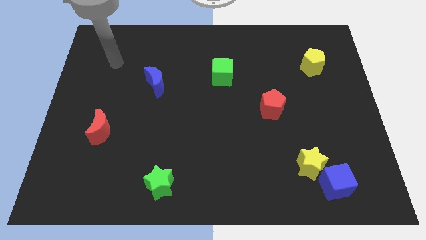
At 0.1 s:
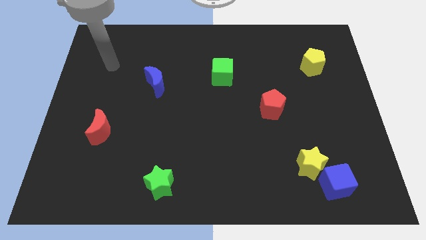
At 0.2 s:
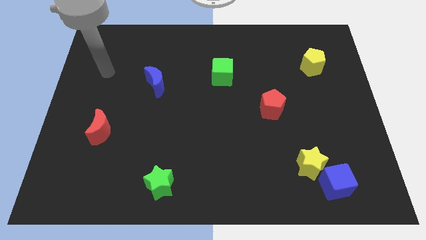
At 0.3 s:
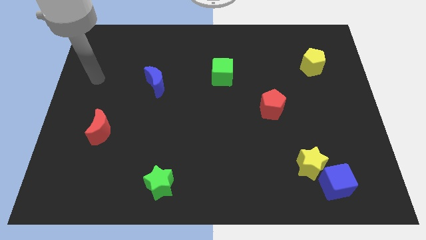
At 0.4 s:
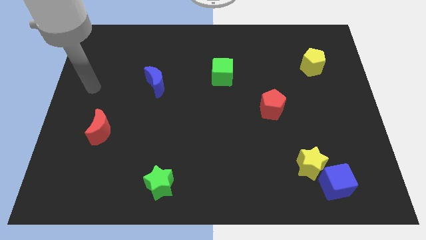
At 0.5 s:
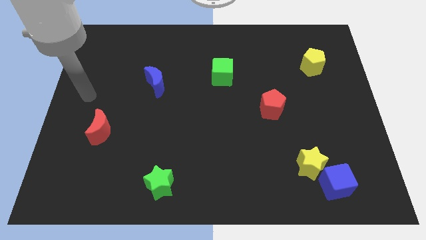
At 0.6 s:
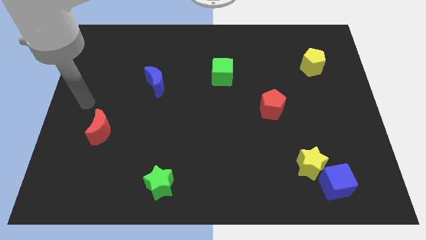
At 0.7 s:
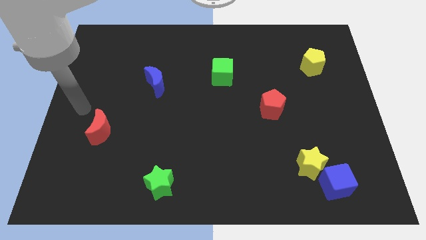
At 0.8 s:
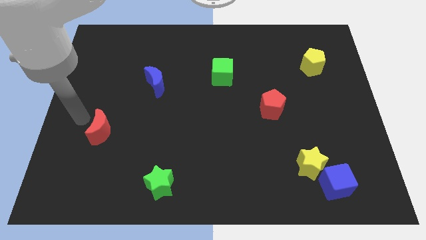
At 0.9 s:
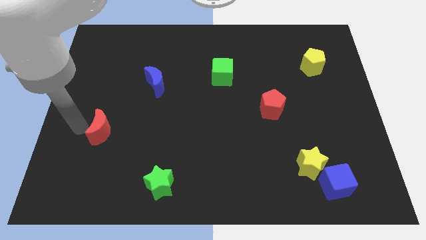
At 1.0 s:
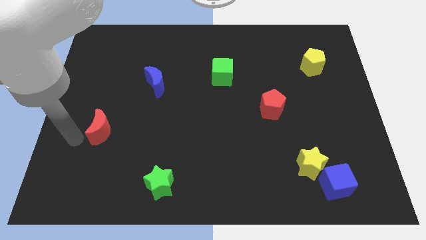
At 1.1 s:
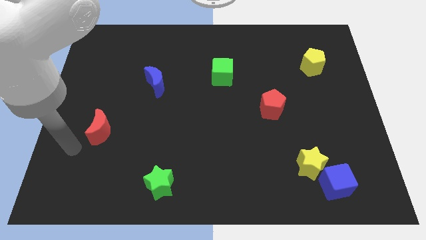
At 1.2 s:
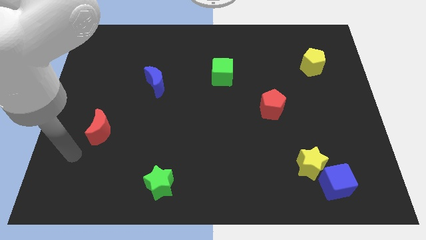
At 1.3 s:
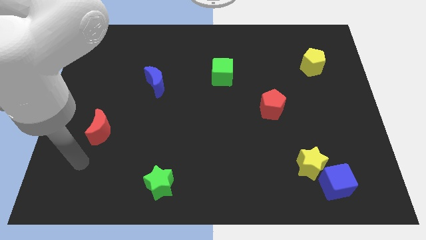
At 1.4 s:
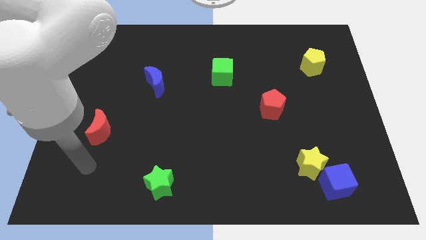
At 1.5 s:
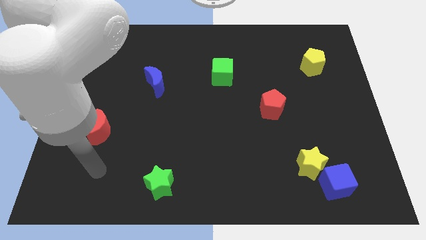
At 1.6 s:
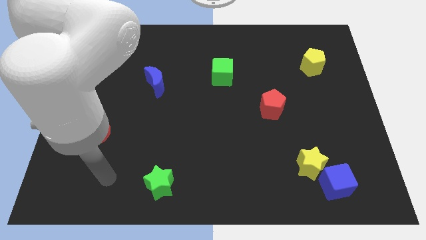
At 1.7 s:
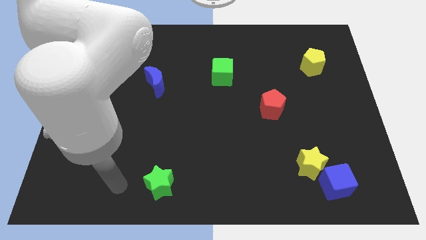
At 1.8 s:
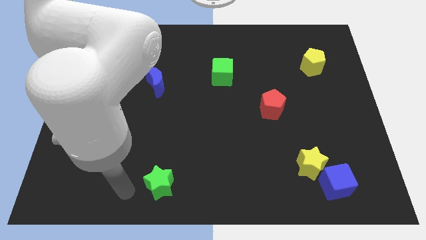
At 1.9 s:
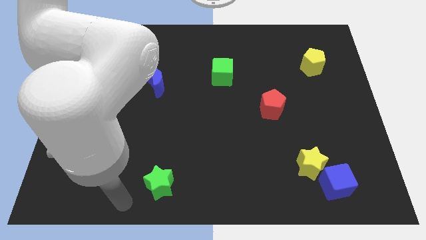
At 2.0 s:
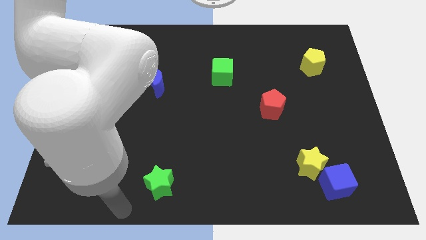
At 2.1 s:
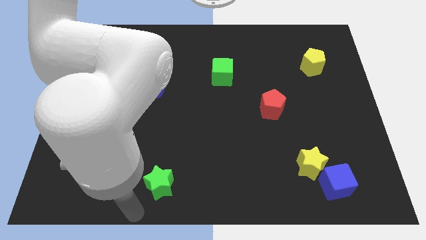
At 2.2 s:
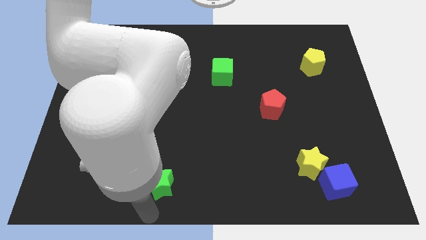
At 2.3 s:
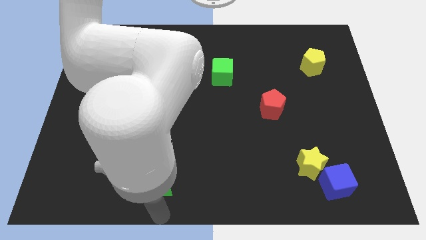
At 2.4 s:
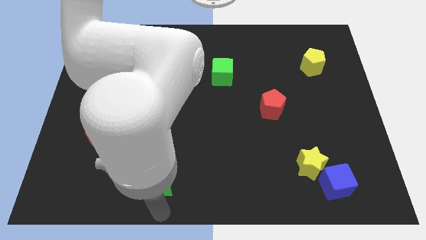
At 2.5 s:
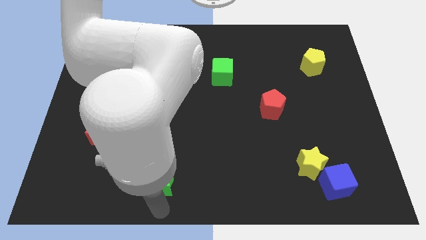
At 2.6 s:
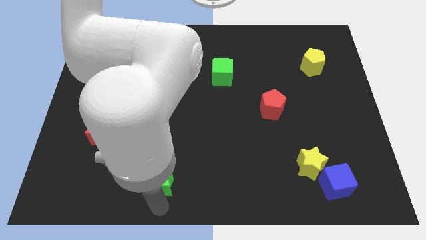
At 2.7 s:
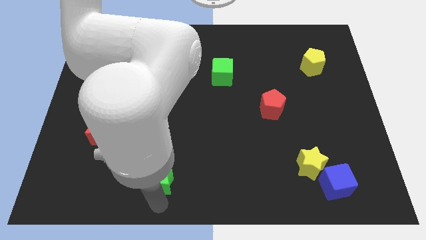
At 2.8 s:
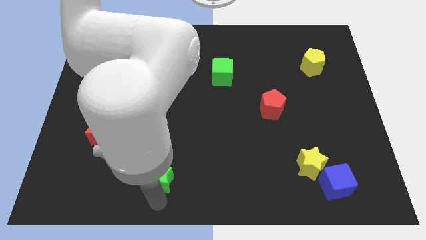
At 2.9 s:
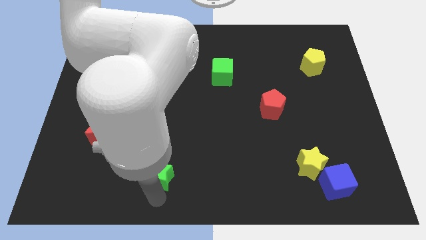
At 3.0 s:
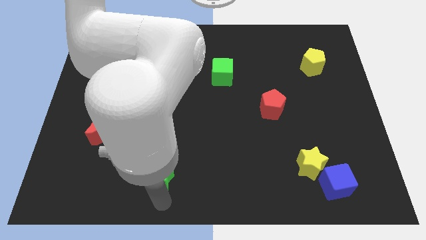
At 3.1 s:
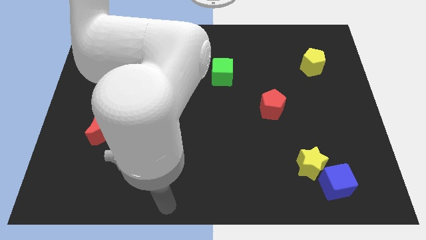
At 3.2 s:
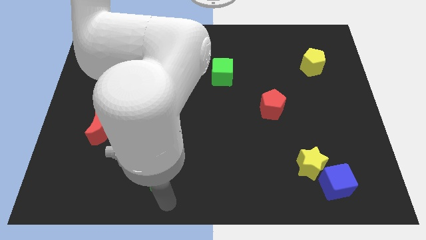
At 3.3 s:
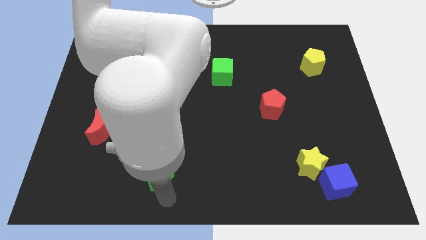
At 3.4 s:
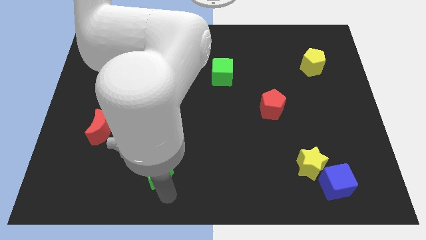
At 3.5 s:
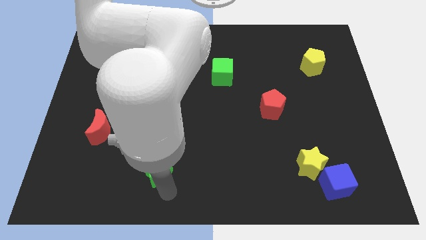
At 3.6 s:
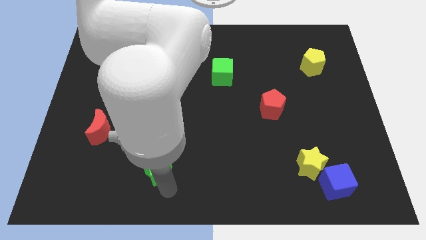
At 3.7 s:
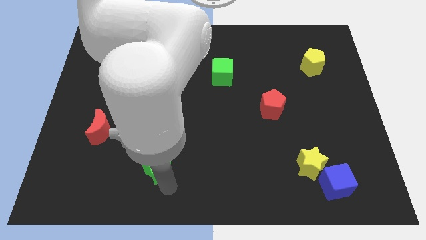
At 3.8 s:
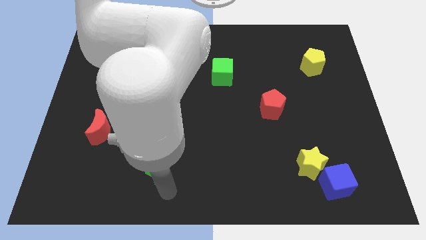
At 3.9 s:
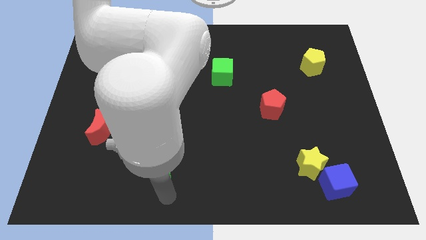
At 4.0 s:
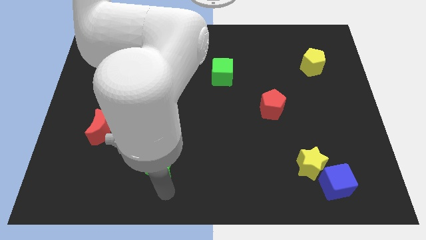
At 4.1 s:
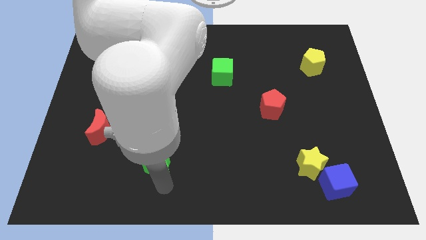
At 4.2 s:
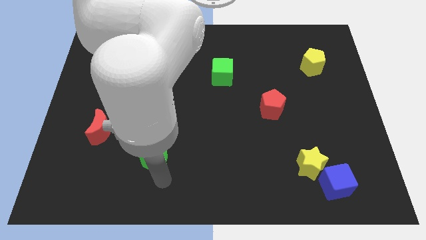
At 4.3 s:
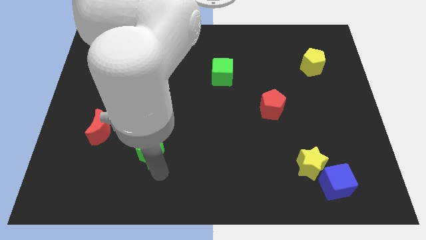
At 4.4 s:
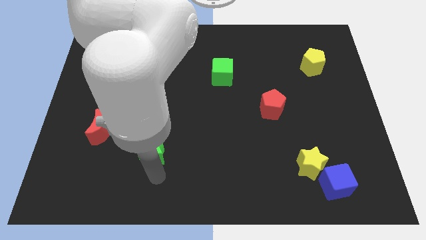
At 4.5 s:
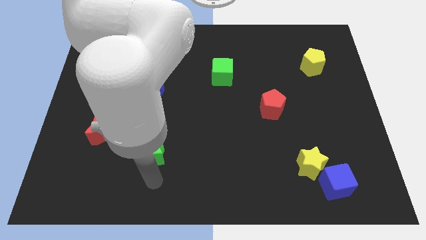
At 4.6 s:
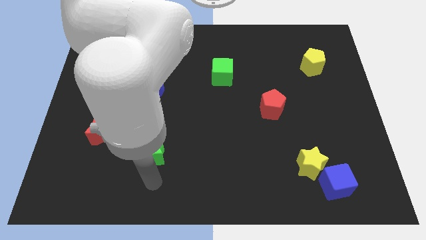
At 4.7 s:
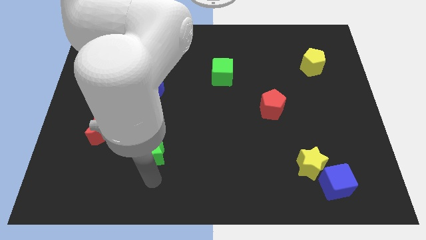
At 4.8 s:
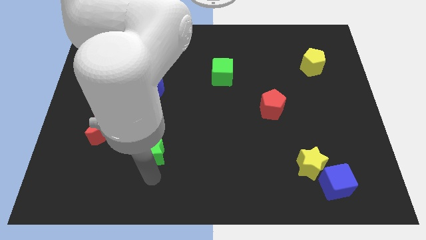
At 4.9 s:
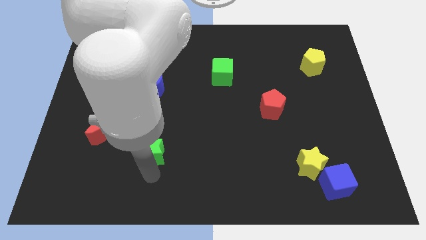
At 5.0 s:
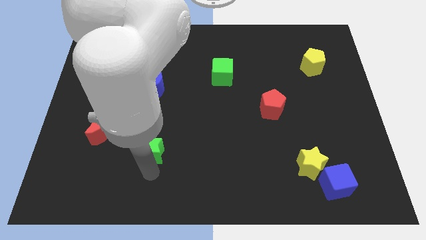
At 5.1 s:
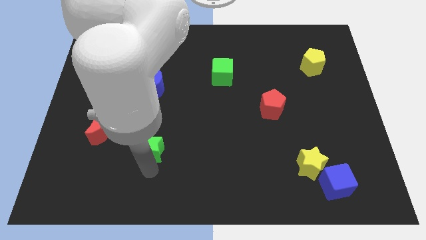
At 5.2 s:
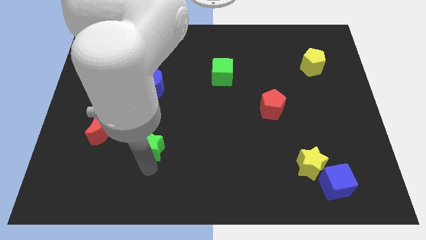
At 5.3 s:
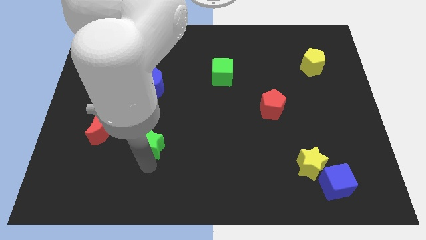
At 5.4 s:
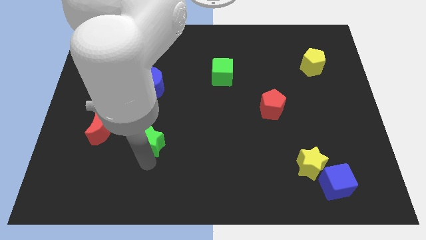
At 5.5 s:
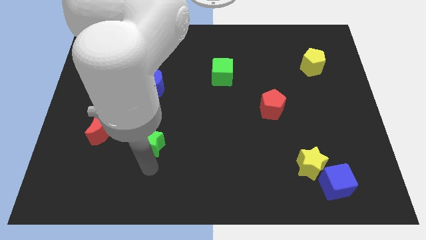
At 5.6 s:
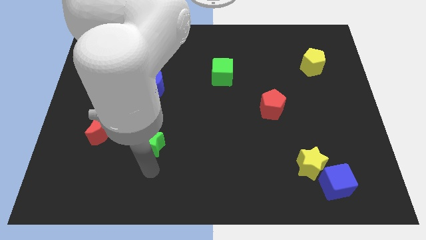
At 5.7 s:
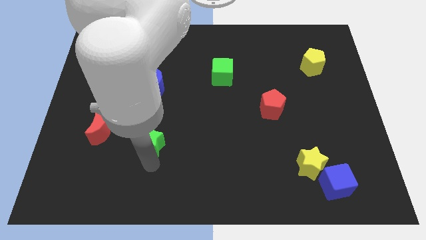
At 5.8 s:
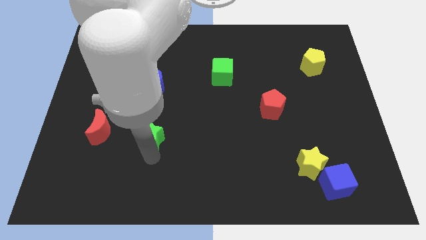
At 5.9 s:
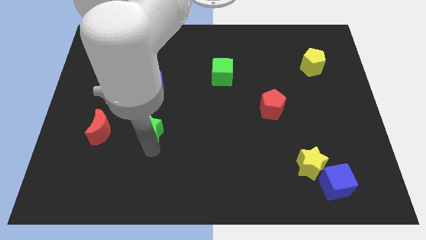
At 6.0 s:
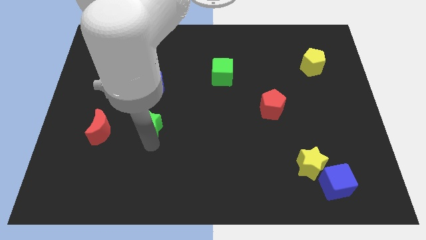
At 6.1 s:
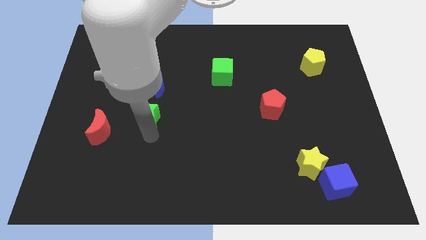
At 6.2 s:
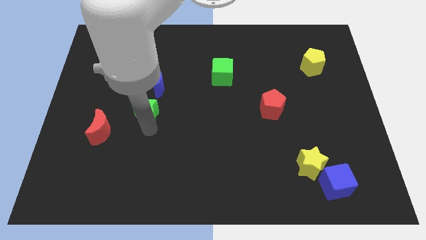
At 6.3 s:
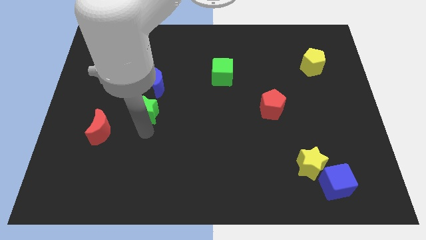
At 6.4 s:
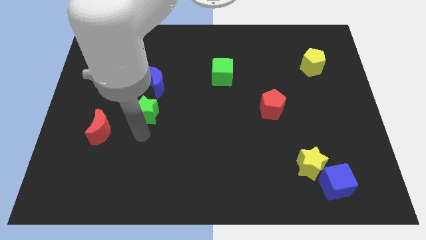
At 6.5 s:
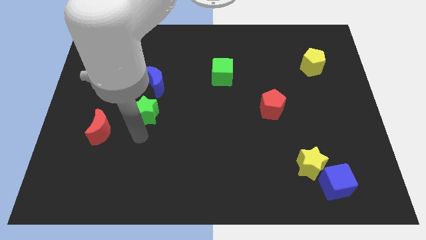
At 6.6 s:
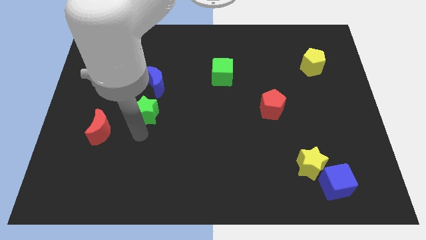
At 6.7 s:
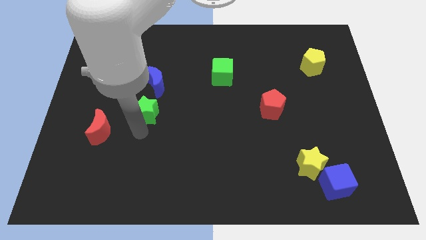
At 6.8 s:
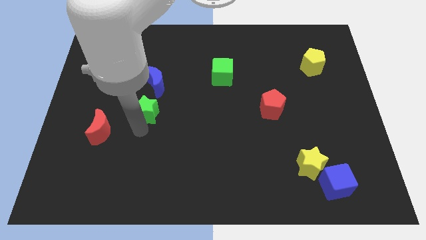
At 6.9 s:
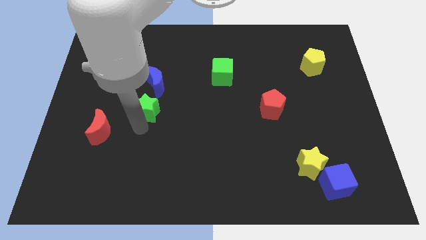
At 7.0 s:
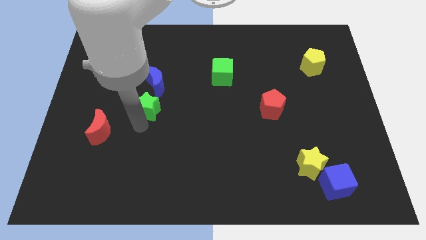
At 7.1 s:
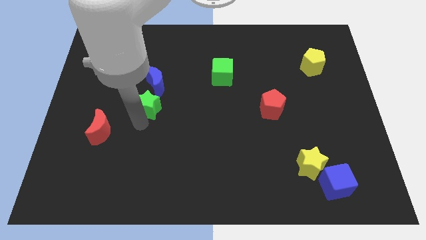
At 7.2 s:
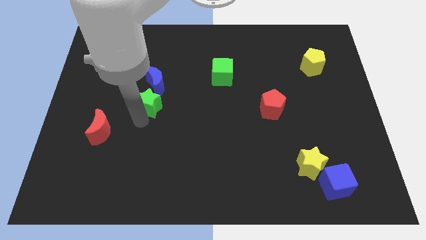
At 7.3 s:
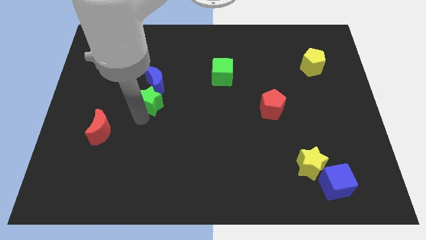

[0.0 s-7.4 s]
push the green star next to the blue moon

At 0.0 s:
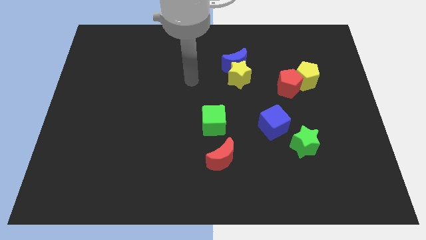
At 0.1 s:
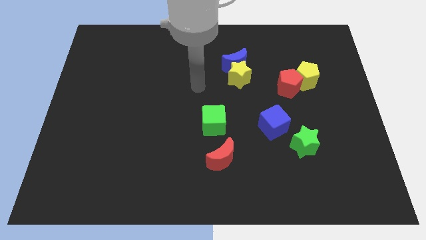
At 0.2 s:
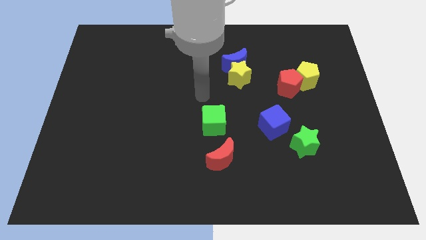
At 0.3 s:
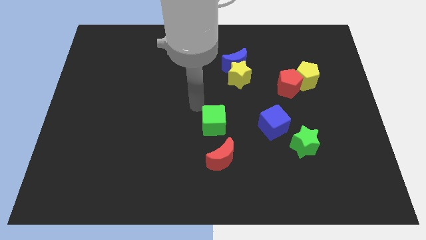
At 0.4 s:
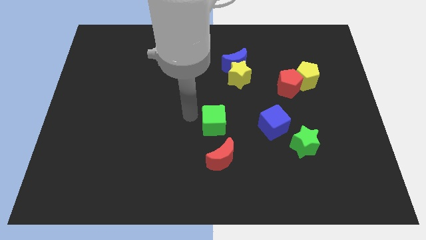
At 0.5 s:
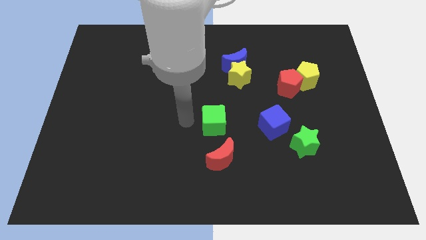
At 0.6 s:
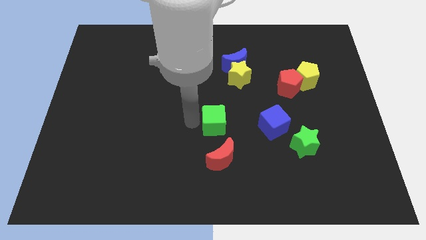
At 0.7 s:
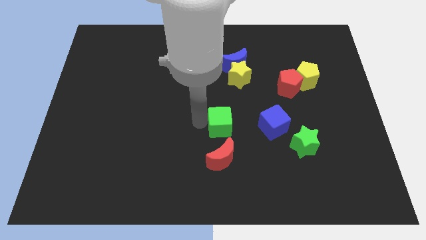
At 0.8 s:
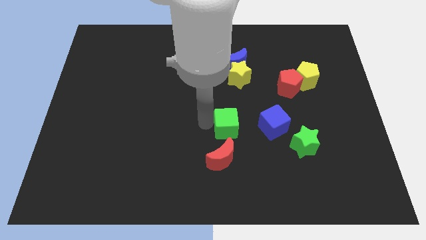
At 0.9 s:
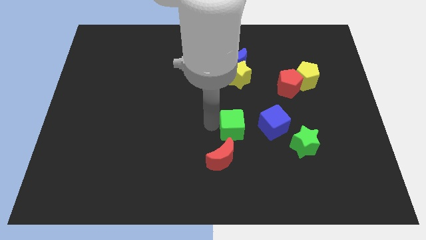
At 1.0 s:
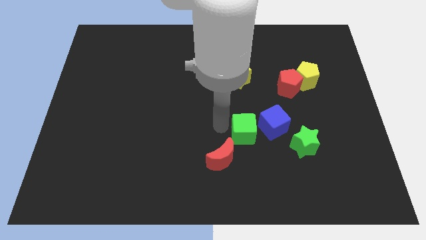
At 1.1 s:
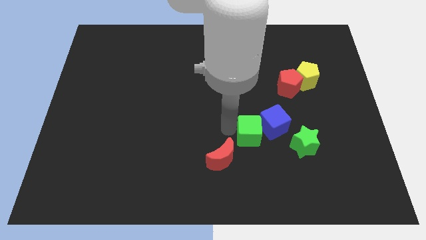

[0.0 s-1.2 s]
move the green cube next to the blue cube
